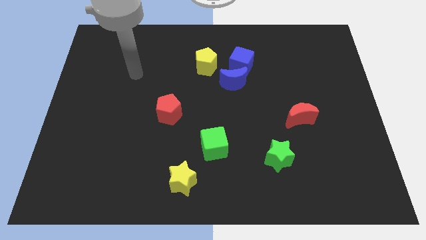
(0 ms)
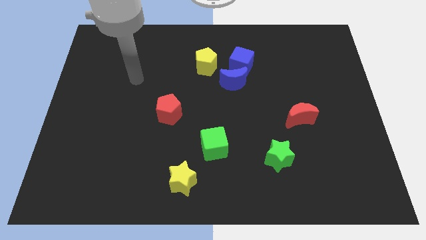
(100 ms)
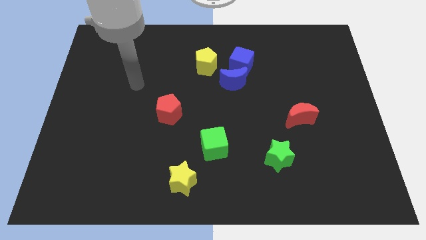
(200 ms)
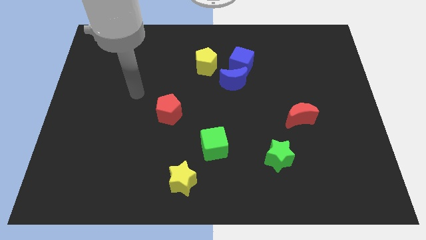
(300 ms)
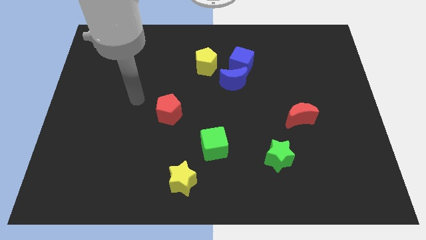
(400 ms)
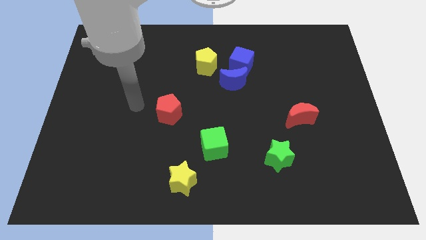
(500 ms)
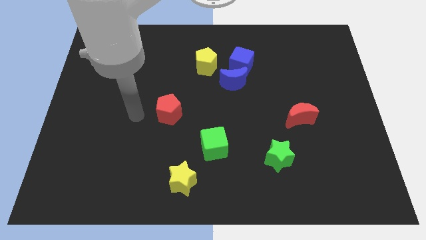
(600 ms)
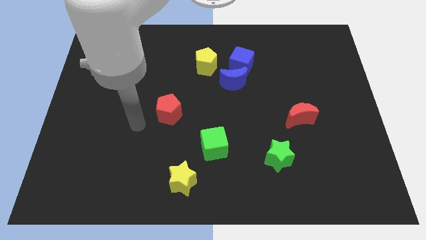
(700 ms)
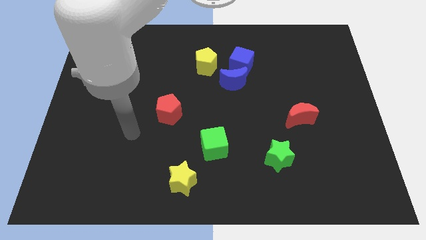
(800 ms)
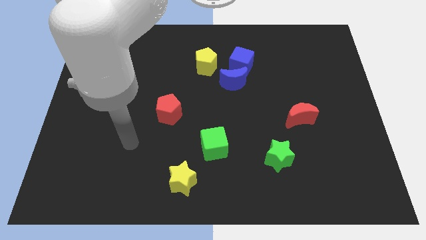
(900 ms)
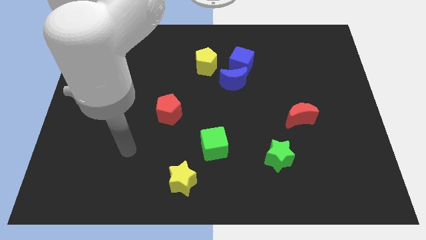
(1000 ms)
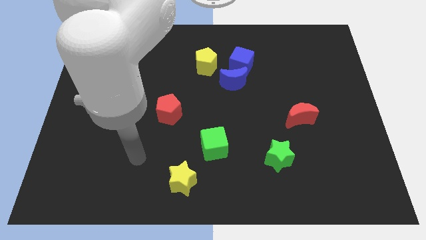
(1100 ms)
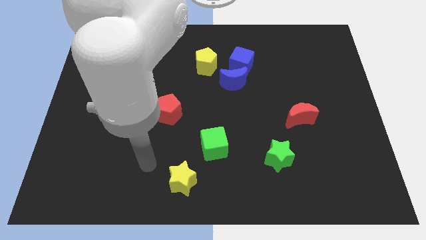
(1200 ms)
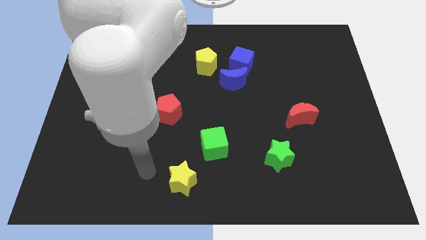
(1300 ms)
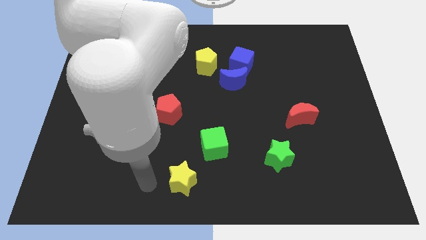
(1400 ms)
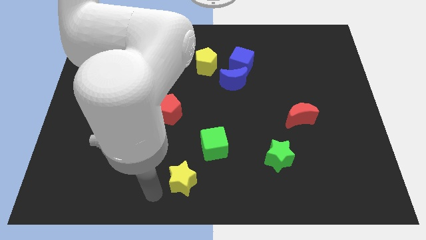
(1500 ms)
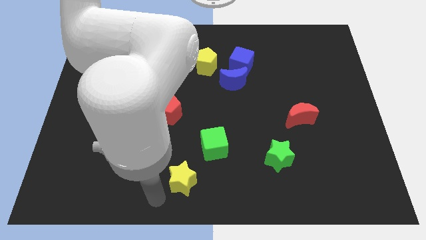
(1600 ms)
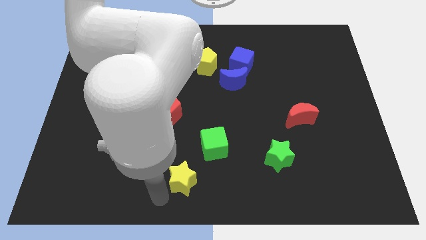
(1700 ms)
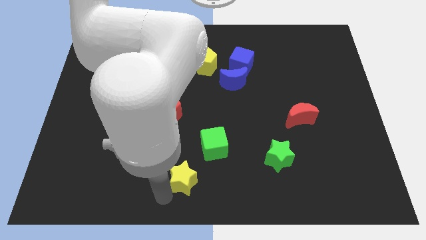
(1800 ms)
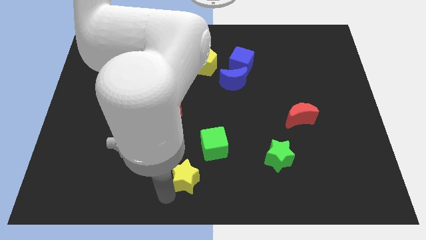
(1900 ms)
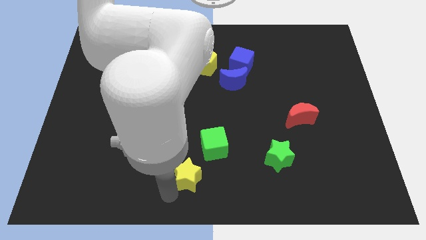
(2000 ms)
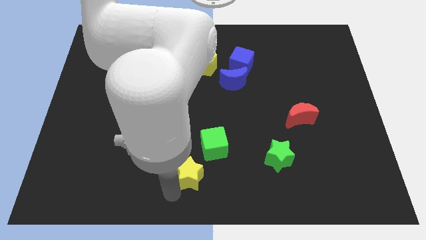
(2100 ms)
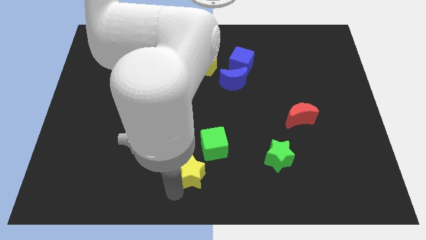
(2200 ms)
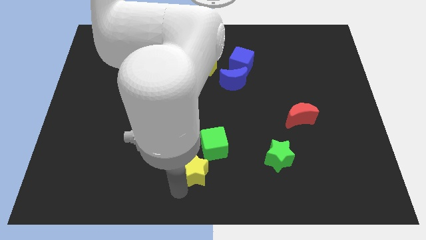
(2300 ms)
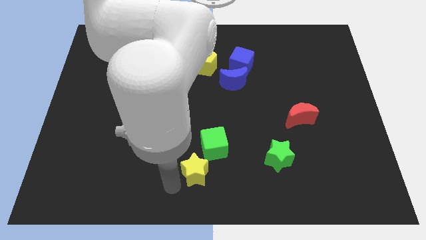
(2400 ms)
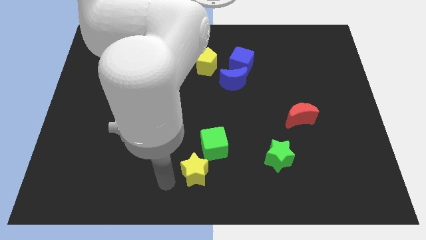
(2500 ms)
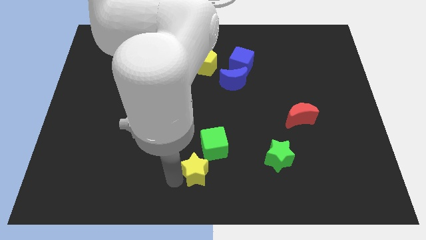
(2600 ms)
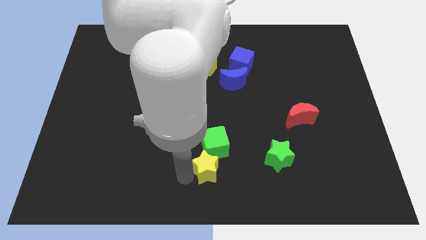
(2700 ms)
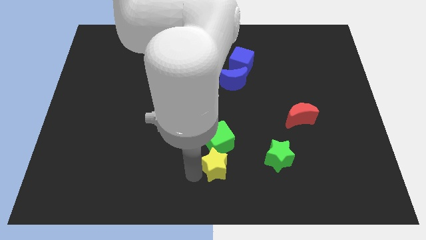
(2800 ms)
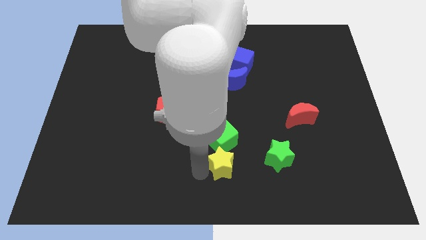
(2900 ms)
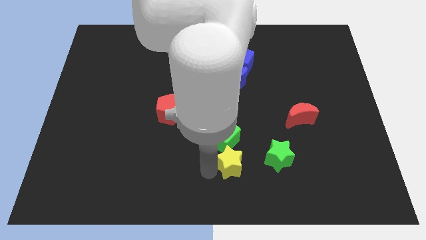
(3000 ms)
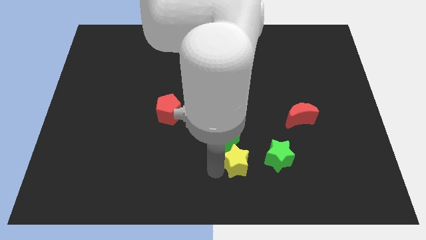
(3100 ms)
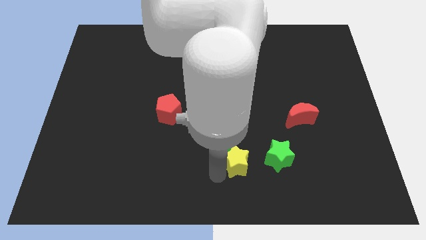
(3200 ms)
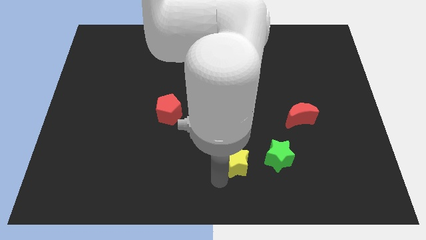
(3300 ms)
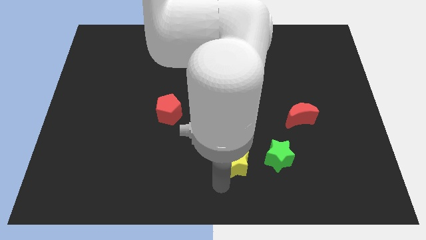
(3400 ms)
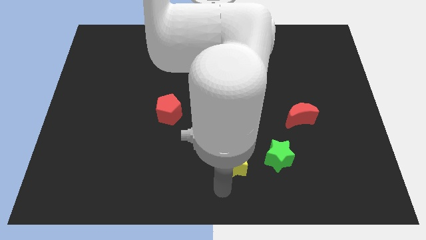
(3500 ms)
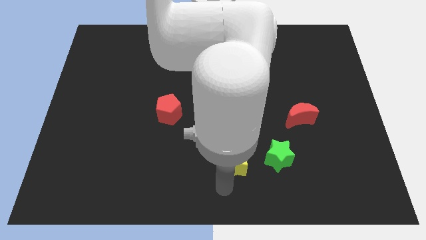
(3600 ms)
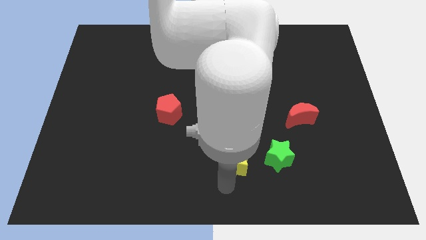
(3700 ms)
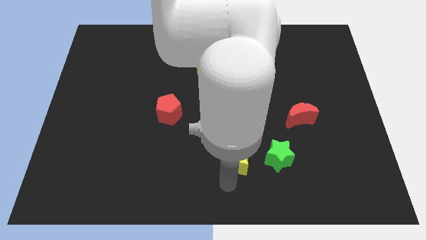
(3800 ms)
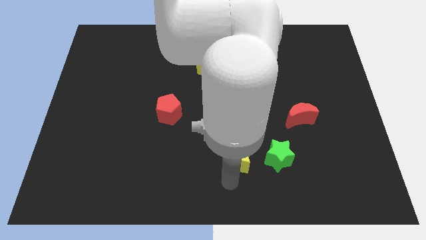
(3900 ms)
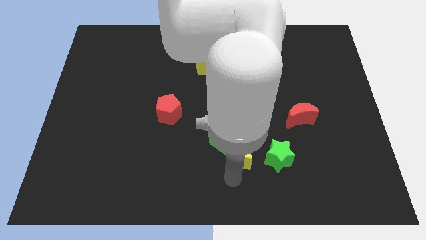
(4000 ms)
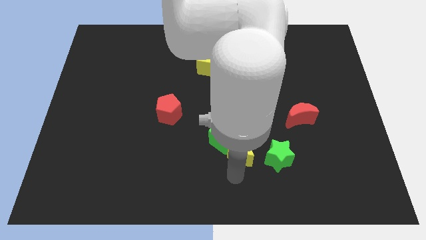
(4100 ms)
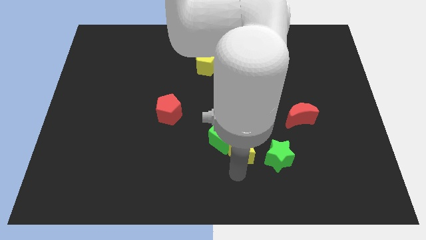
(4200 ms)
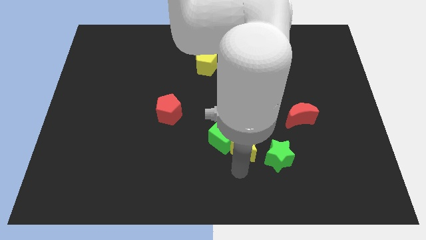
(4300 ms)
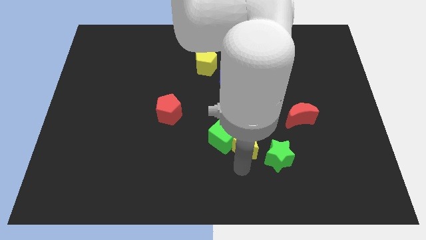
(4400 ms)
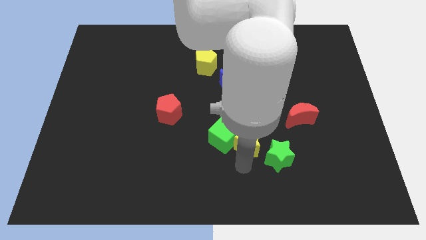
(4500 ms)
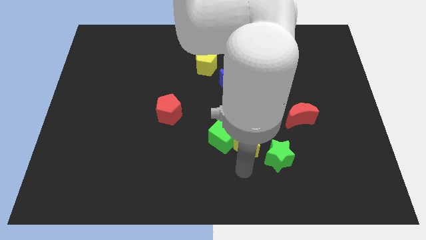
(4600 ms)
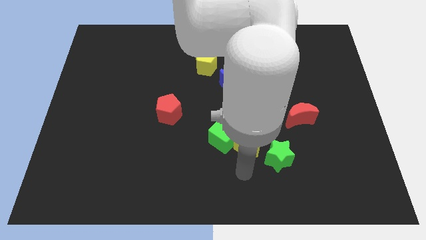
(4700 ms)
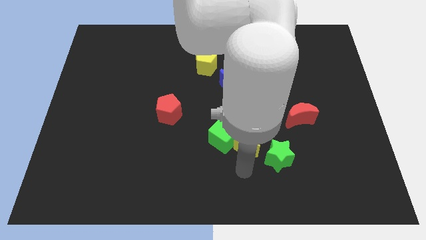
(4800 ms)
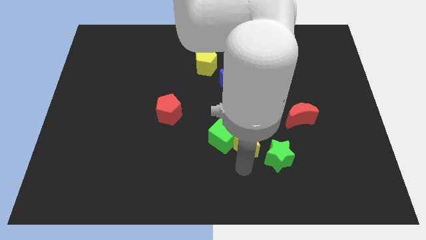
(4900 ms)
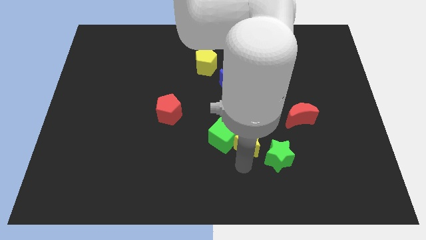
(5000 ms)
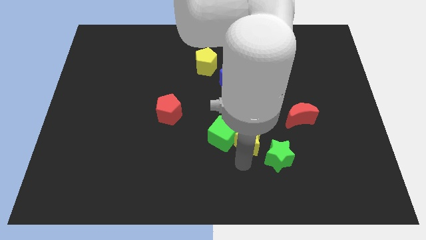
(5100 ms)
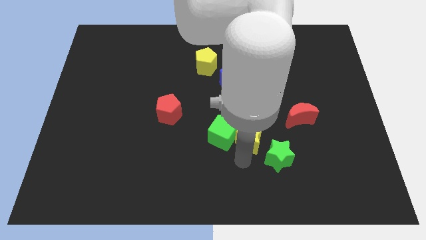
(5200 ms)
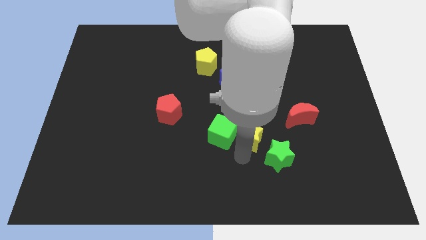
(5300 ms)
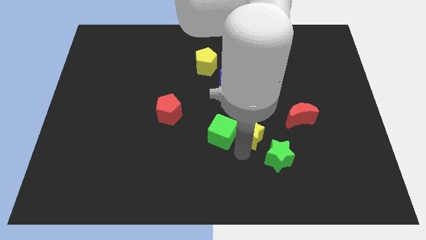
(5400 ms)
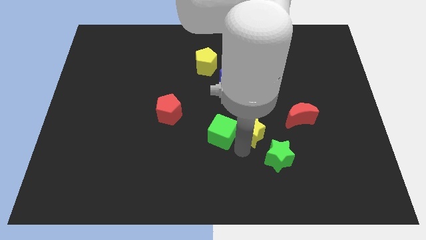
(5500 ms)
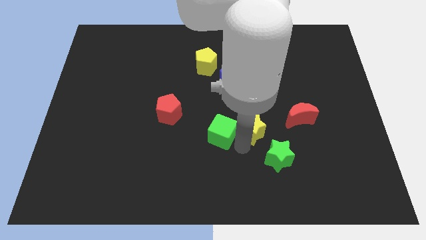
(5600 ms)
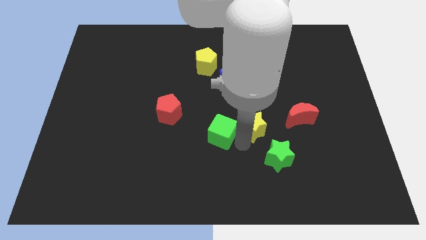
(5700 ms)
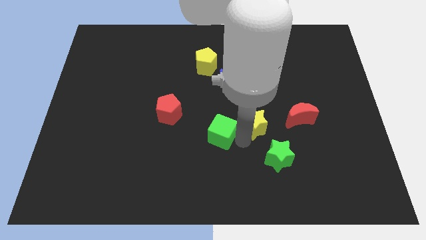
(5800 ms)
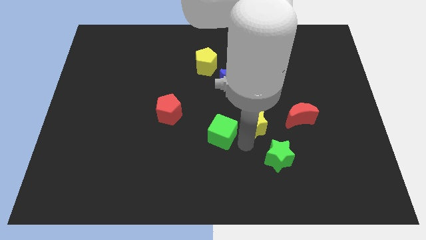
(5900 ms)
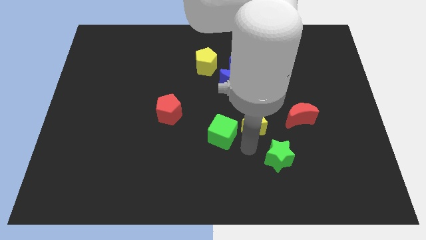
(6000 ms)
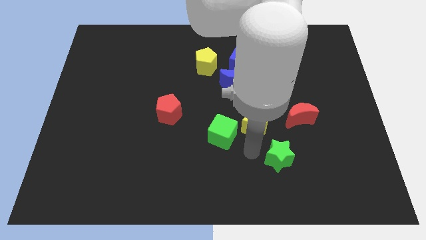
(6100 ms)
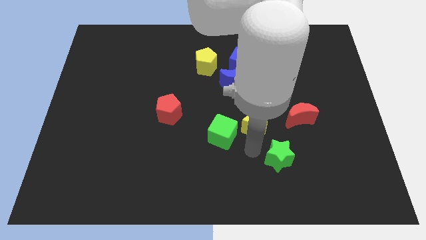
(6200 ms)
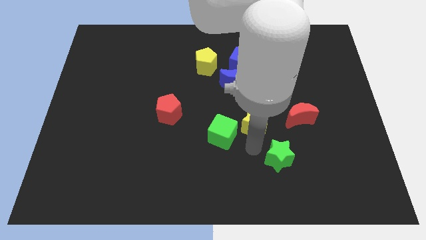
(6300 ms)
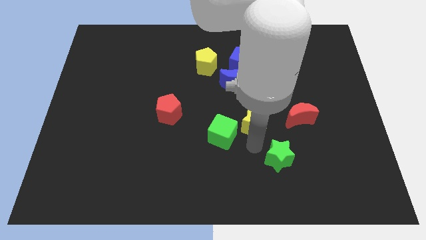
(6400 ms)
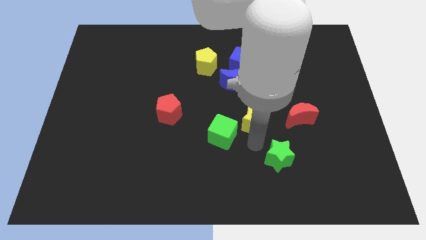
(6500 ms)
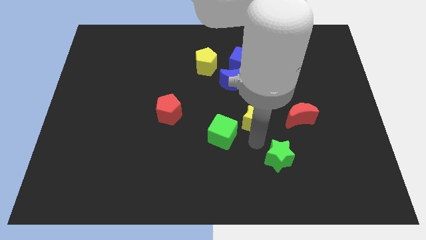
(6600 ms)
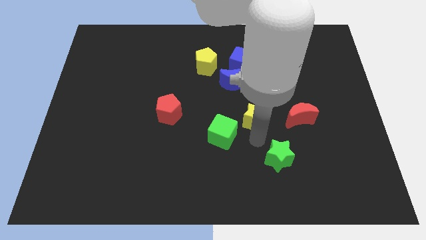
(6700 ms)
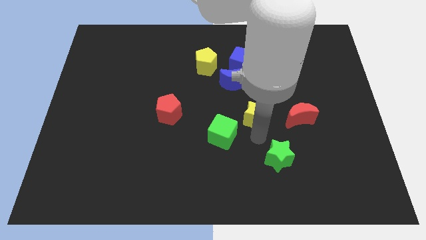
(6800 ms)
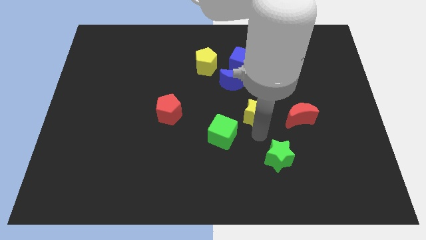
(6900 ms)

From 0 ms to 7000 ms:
move the yellow star to the bottom right of the blue moon

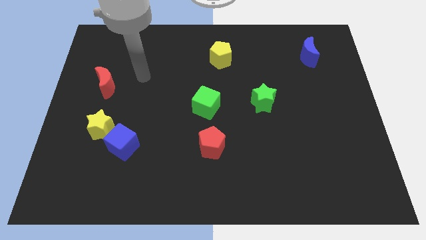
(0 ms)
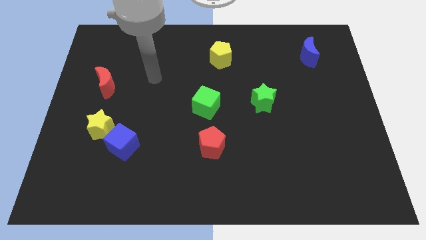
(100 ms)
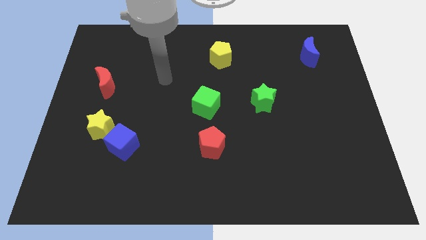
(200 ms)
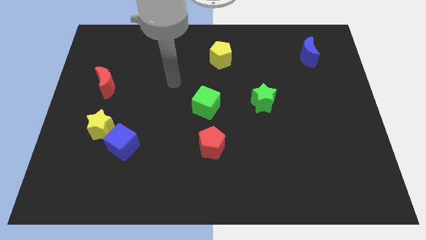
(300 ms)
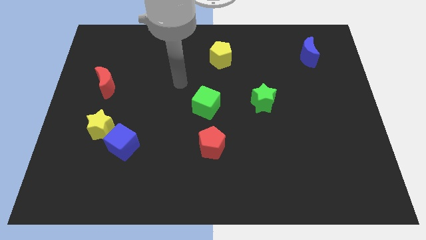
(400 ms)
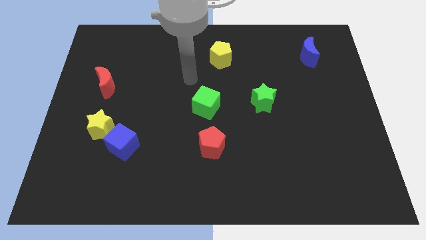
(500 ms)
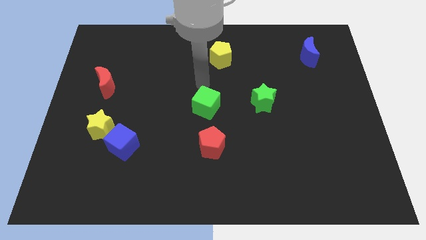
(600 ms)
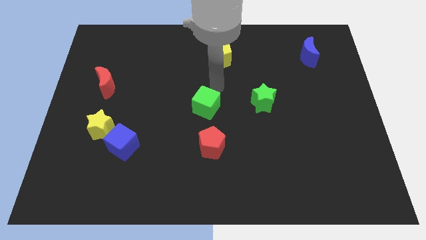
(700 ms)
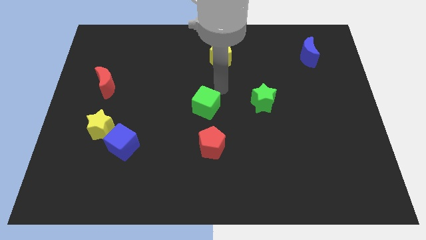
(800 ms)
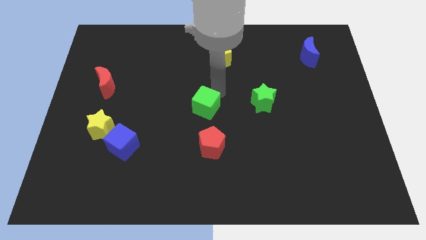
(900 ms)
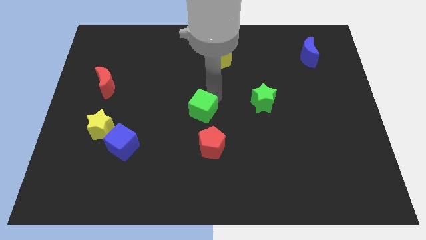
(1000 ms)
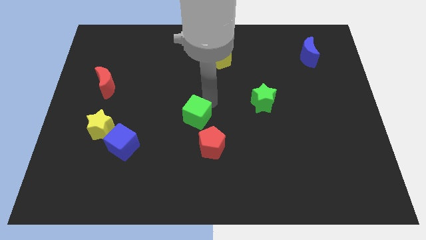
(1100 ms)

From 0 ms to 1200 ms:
move the green cube diagonally up and to the left of the red pentagon
